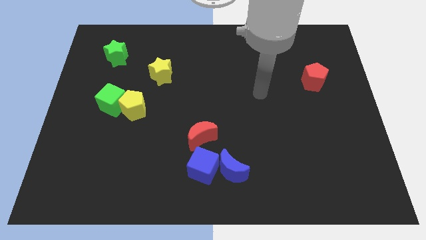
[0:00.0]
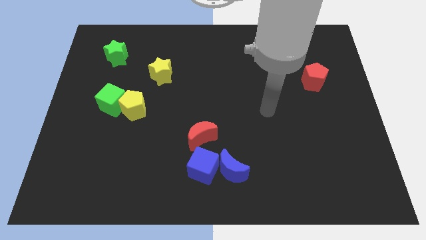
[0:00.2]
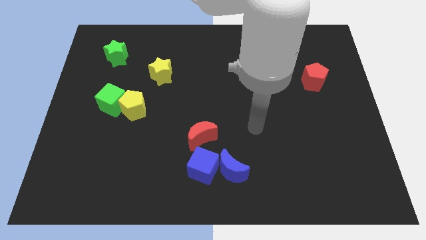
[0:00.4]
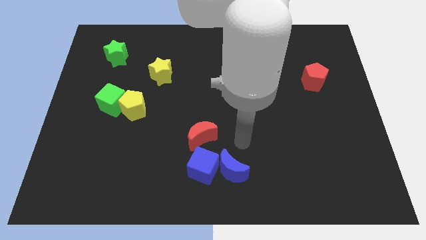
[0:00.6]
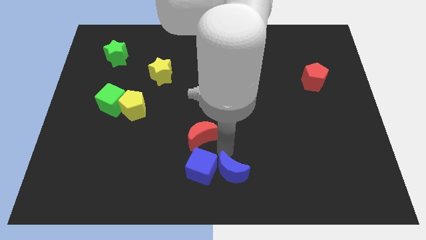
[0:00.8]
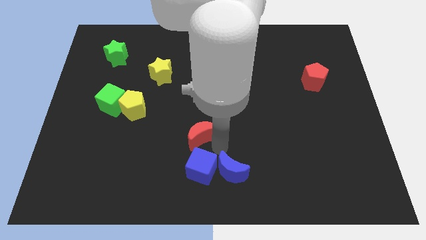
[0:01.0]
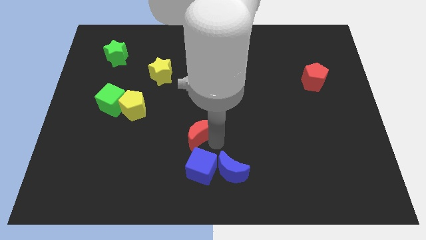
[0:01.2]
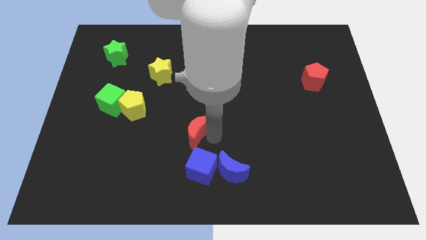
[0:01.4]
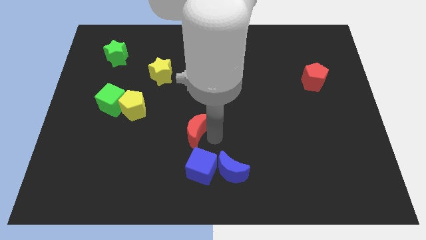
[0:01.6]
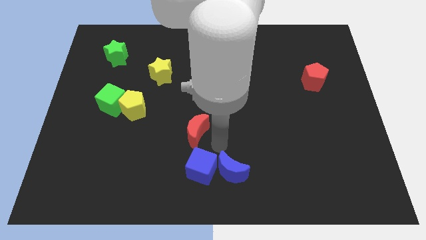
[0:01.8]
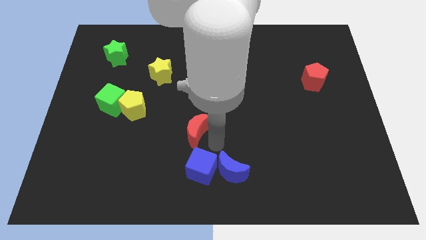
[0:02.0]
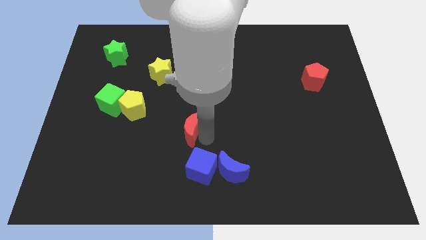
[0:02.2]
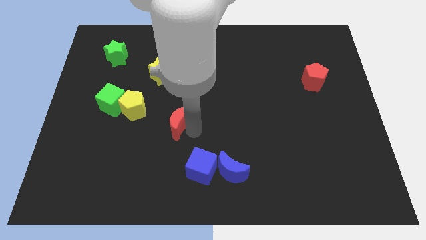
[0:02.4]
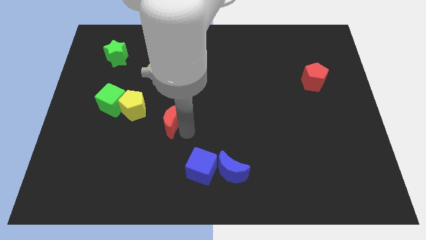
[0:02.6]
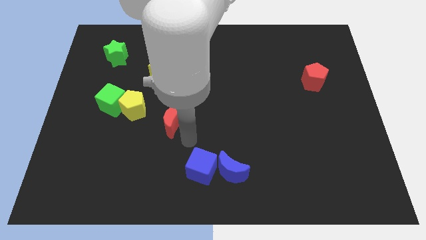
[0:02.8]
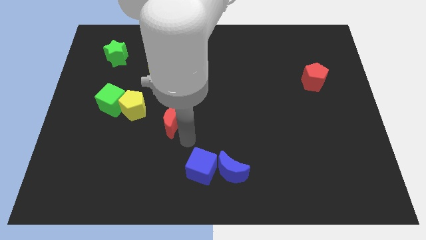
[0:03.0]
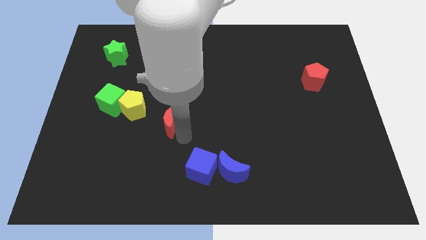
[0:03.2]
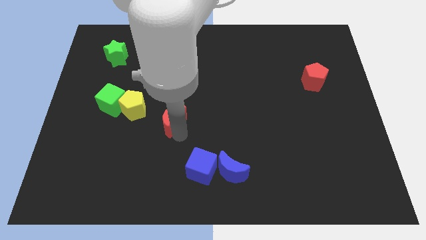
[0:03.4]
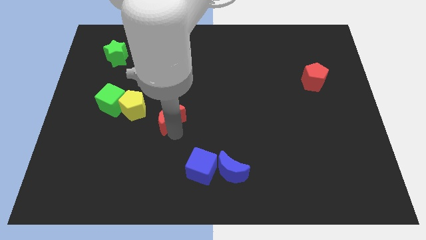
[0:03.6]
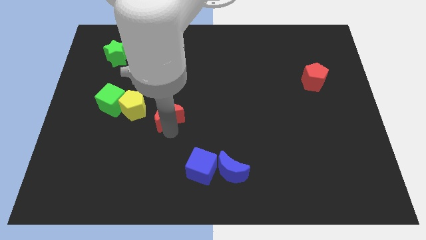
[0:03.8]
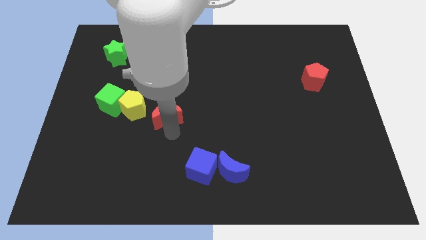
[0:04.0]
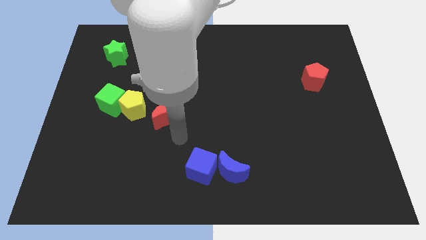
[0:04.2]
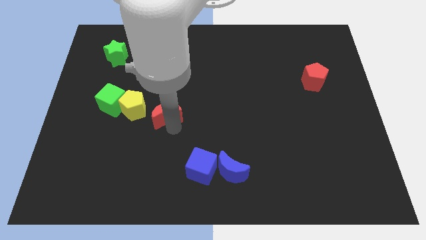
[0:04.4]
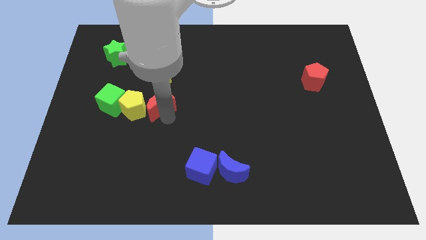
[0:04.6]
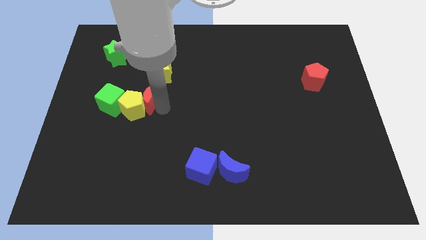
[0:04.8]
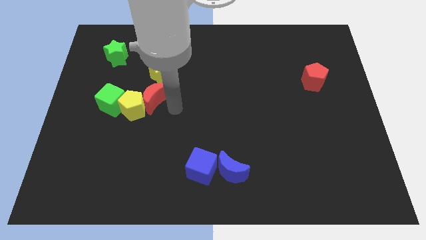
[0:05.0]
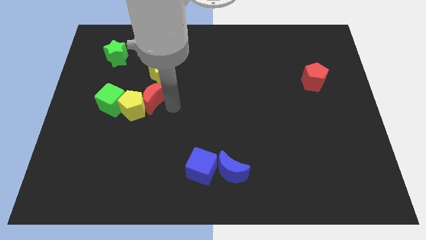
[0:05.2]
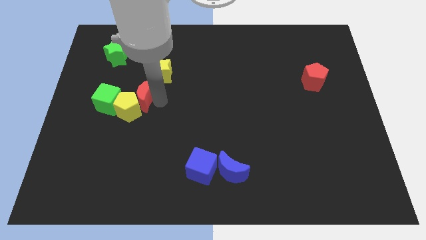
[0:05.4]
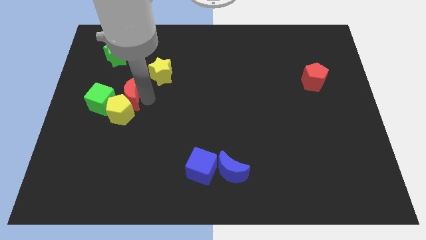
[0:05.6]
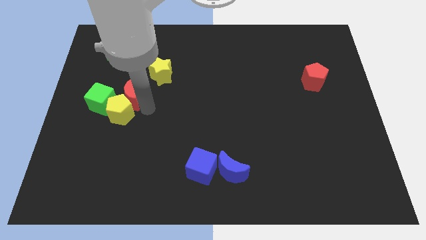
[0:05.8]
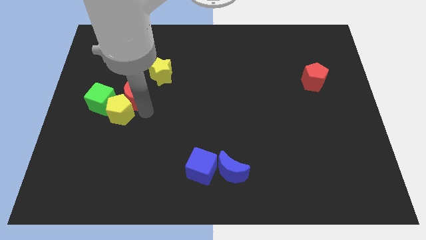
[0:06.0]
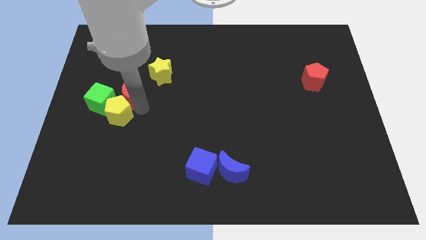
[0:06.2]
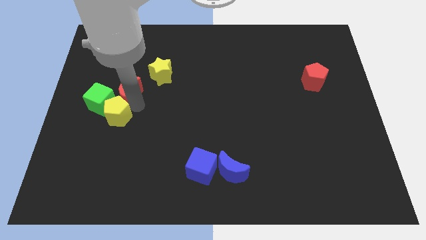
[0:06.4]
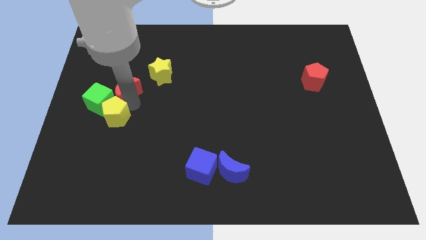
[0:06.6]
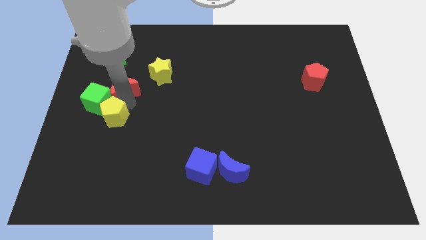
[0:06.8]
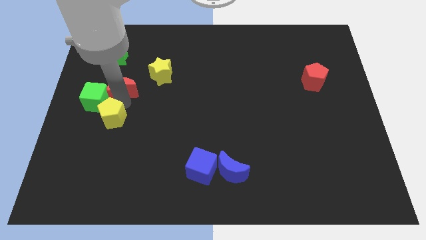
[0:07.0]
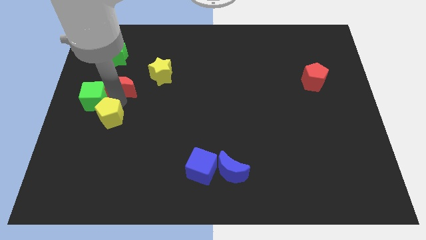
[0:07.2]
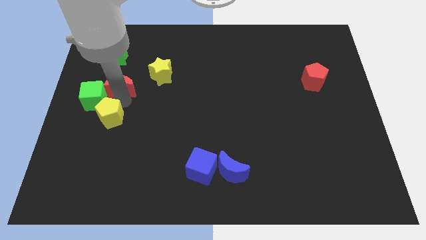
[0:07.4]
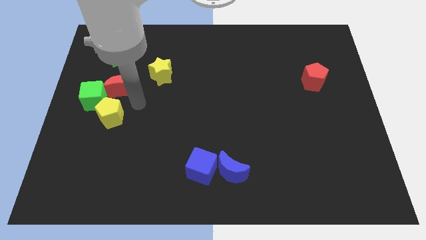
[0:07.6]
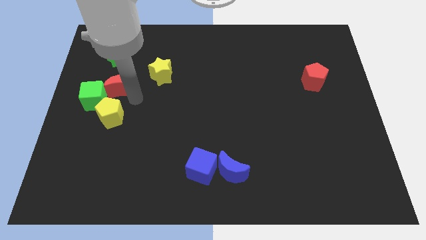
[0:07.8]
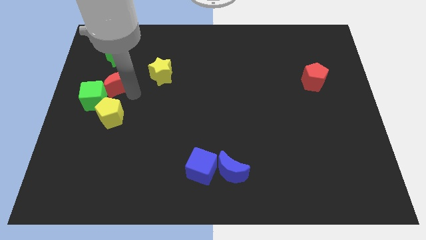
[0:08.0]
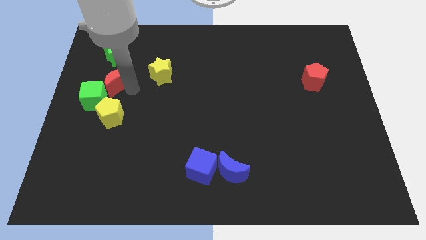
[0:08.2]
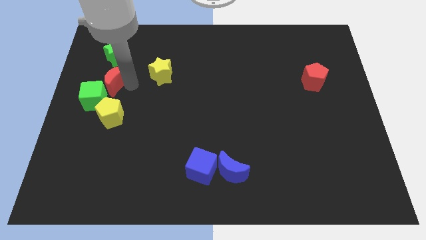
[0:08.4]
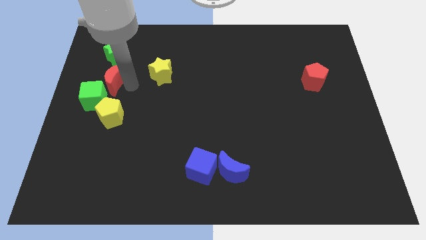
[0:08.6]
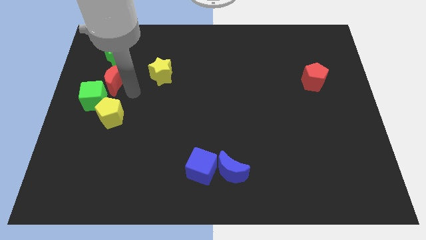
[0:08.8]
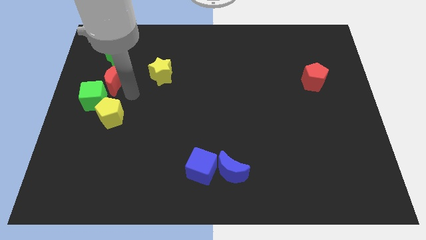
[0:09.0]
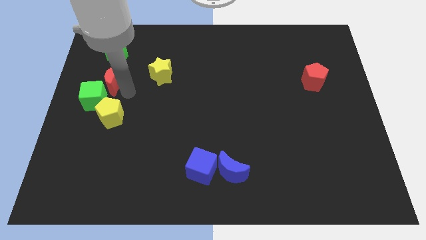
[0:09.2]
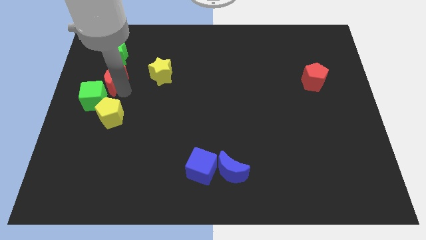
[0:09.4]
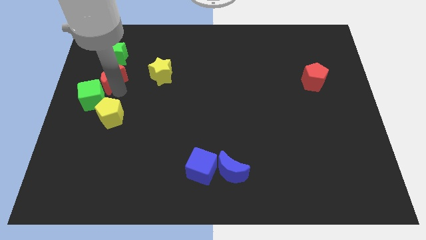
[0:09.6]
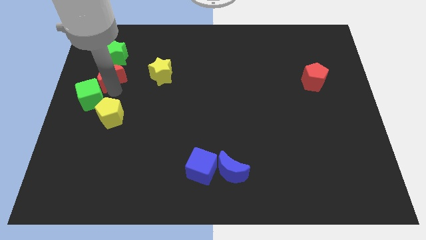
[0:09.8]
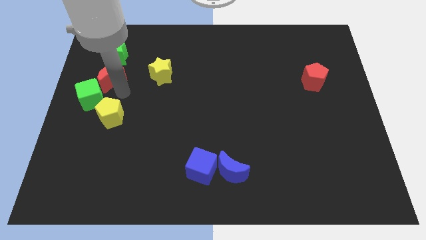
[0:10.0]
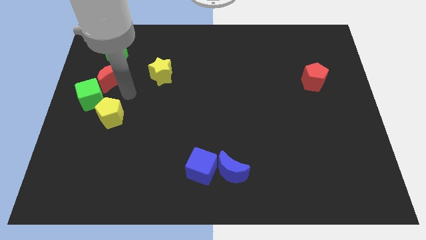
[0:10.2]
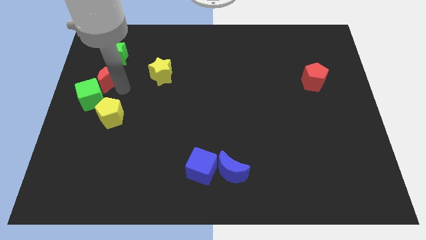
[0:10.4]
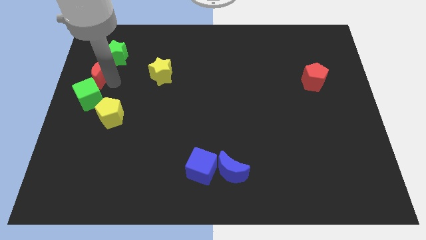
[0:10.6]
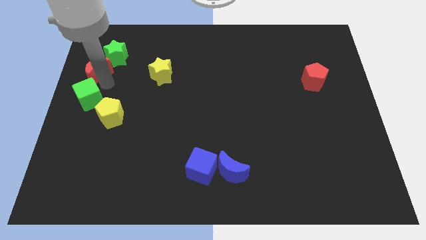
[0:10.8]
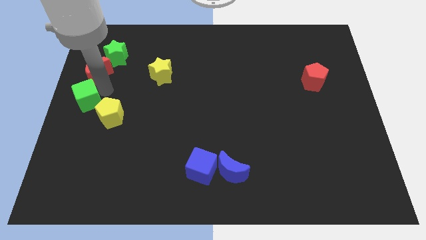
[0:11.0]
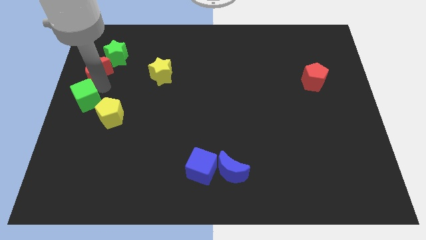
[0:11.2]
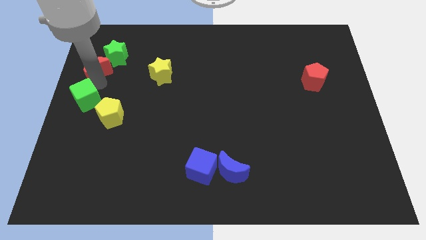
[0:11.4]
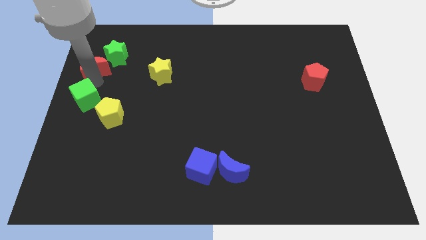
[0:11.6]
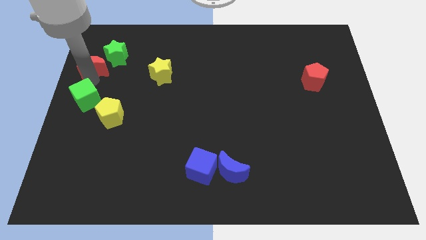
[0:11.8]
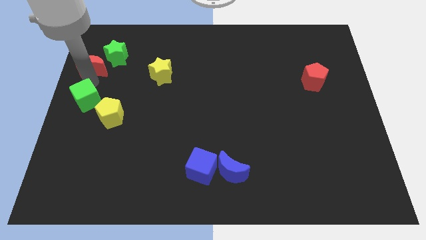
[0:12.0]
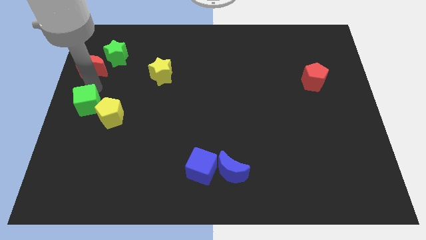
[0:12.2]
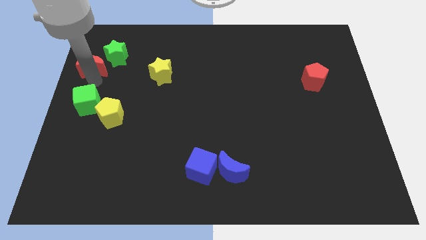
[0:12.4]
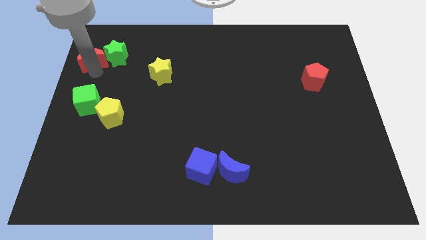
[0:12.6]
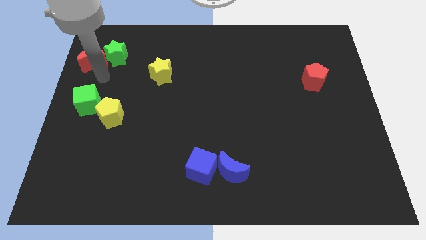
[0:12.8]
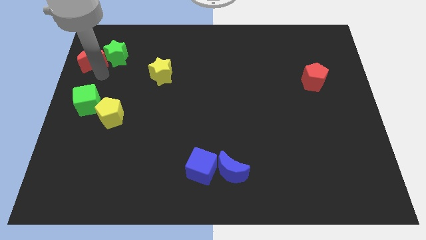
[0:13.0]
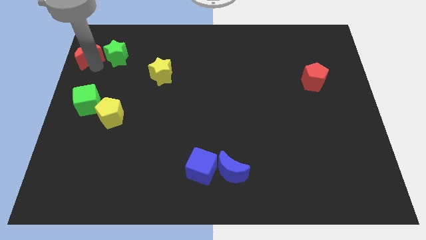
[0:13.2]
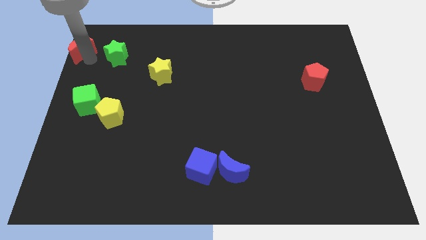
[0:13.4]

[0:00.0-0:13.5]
put the red moon to the top left corner

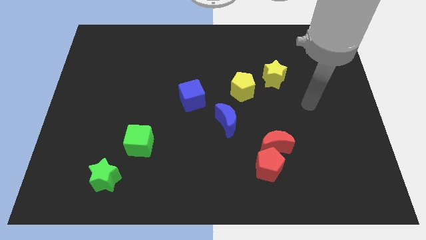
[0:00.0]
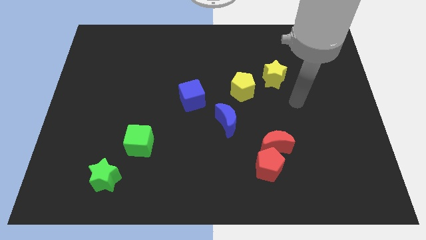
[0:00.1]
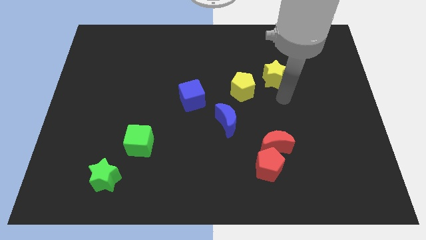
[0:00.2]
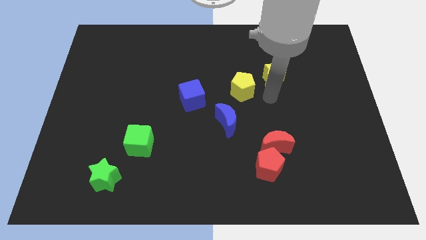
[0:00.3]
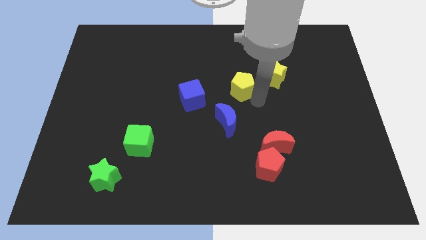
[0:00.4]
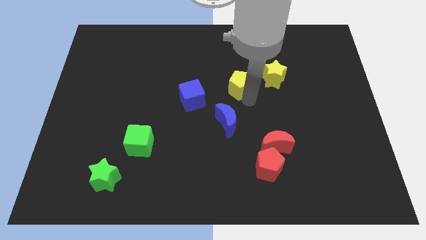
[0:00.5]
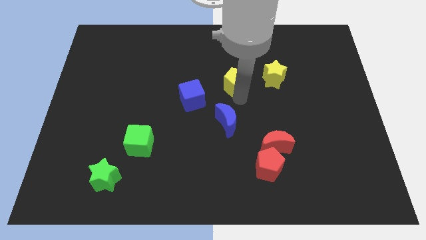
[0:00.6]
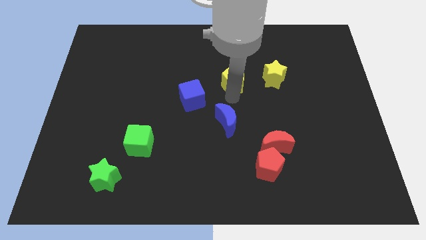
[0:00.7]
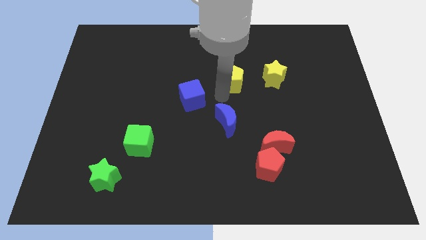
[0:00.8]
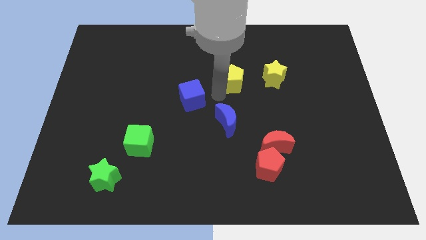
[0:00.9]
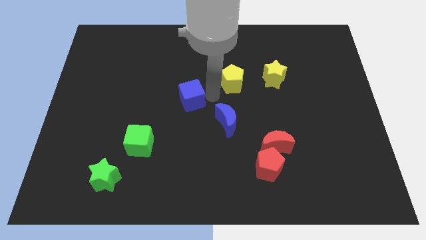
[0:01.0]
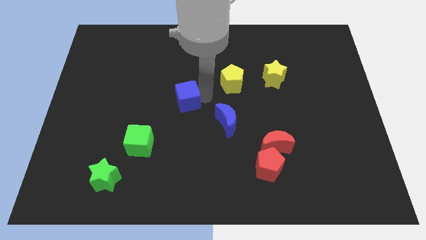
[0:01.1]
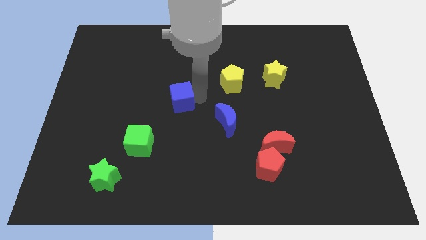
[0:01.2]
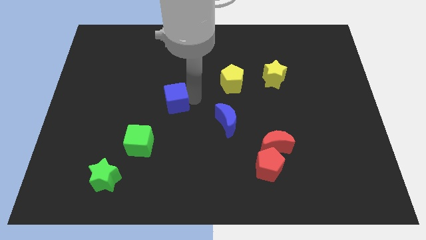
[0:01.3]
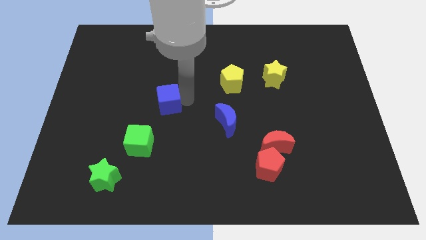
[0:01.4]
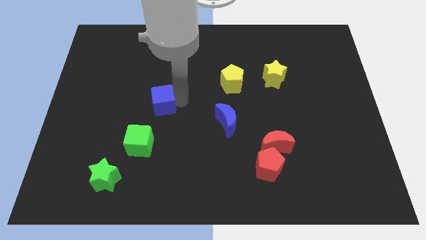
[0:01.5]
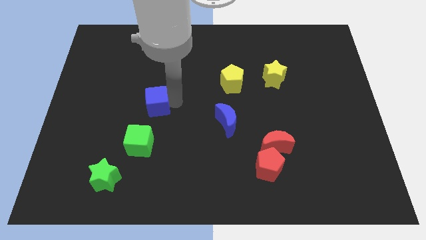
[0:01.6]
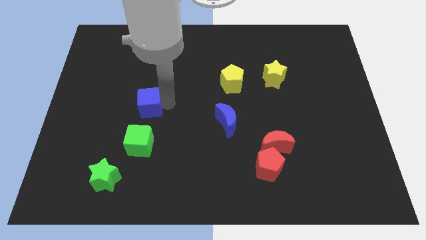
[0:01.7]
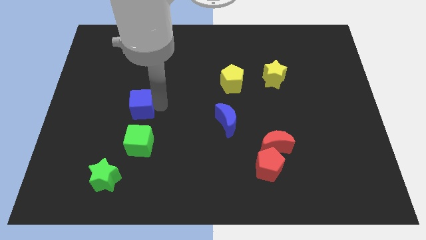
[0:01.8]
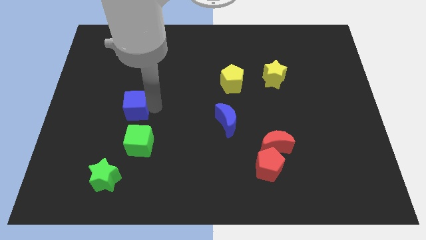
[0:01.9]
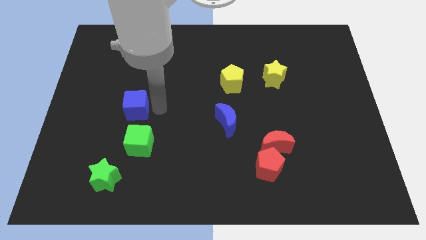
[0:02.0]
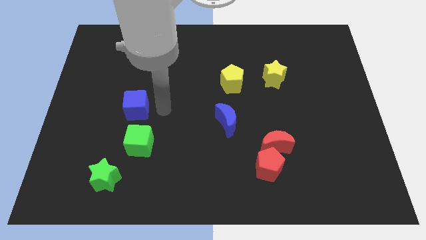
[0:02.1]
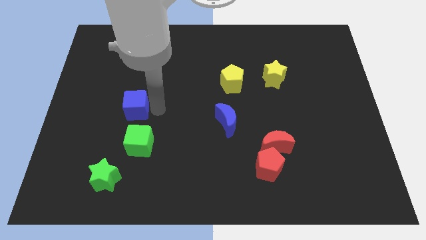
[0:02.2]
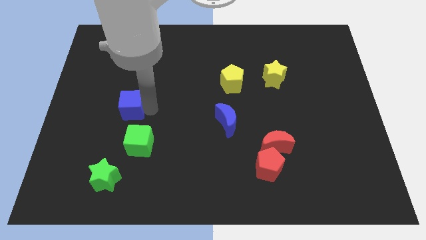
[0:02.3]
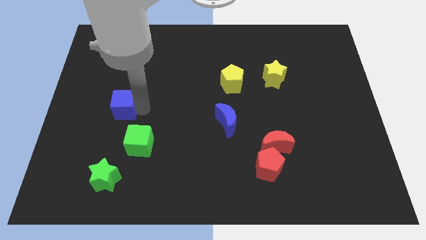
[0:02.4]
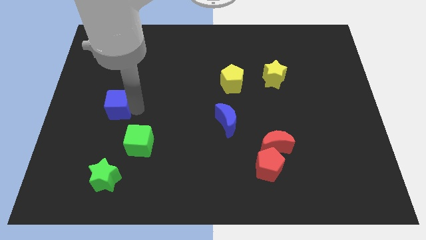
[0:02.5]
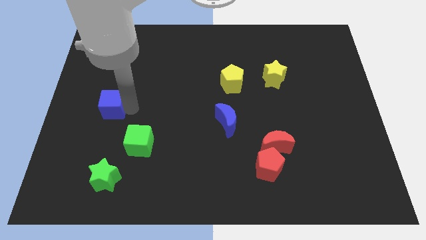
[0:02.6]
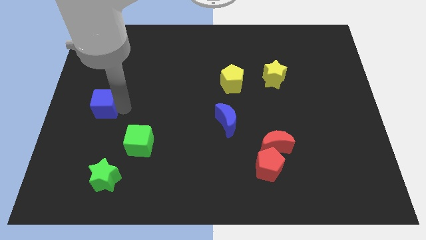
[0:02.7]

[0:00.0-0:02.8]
push the blue cube to the center left
